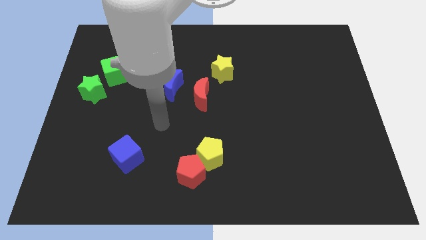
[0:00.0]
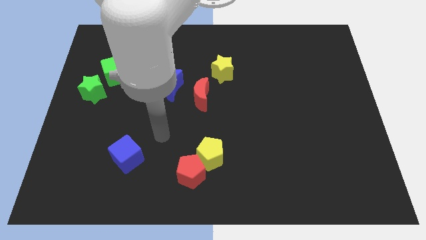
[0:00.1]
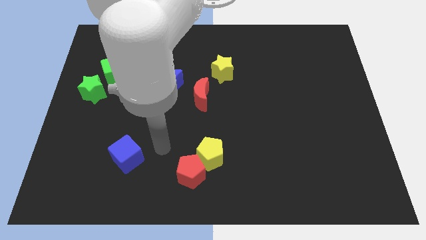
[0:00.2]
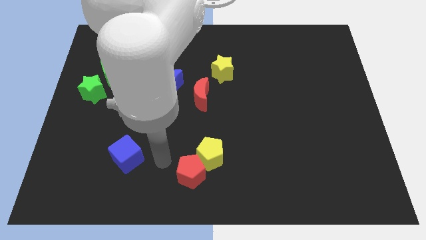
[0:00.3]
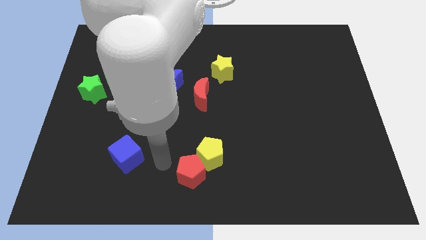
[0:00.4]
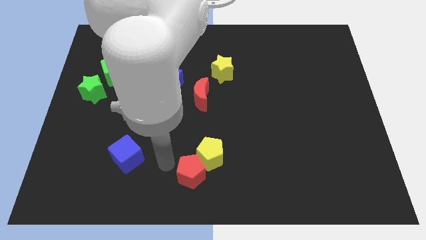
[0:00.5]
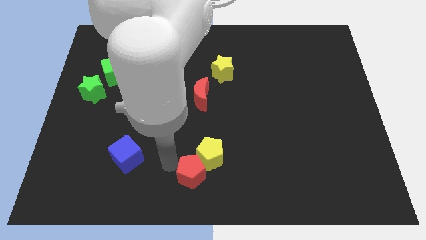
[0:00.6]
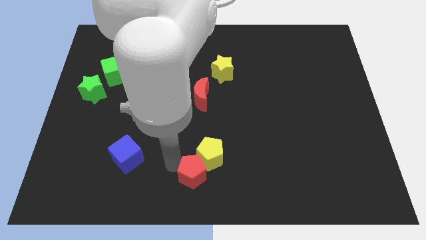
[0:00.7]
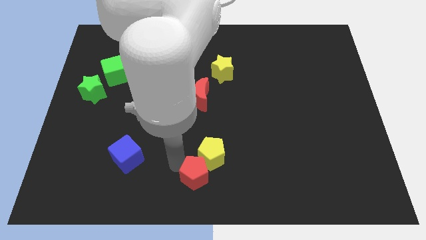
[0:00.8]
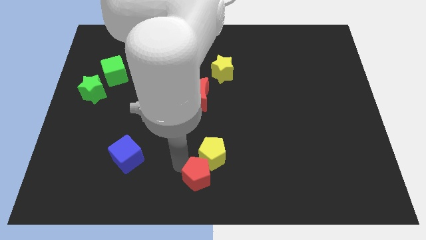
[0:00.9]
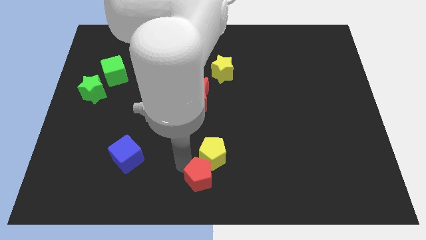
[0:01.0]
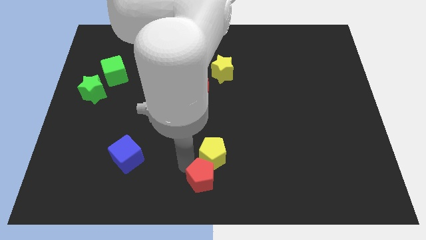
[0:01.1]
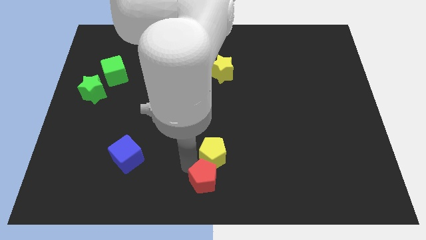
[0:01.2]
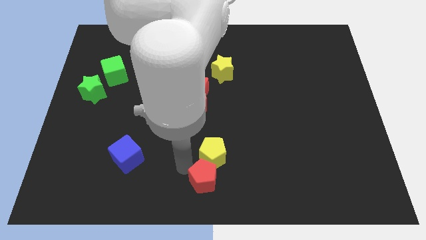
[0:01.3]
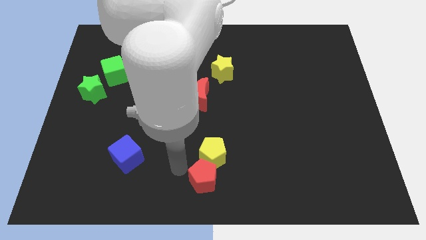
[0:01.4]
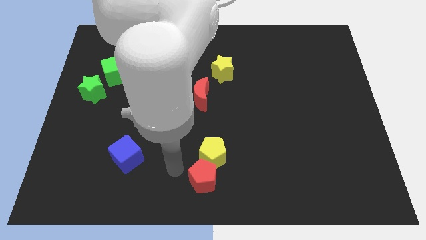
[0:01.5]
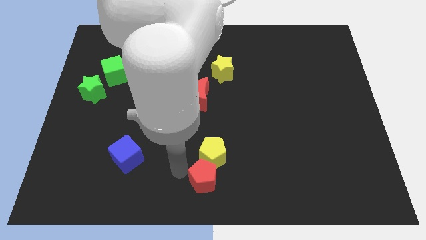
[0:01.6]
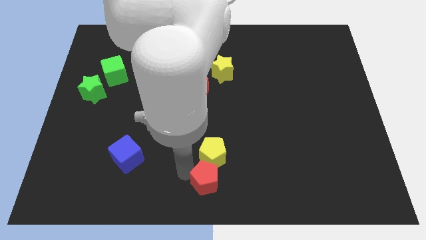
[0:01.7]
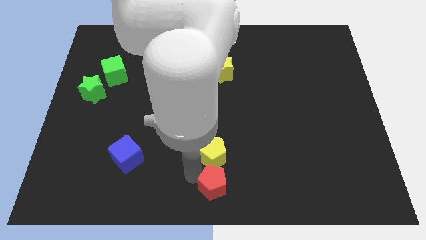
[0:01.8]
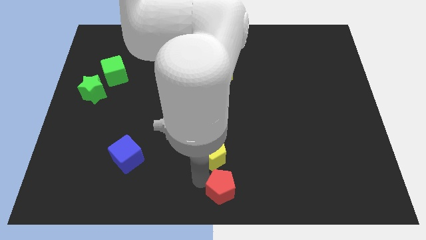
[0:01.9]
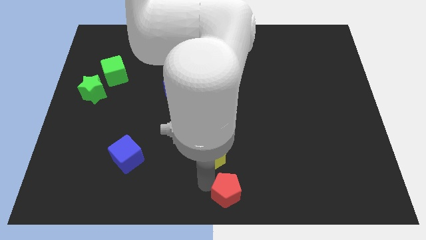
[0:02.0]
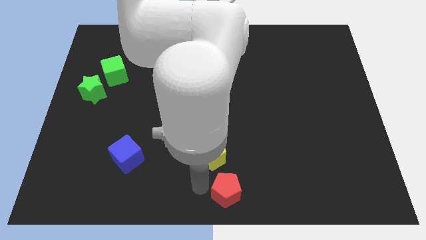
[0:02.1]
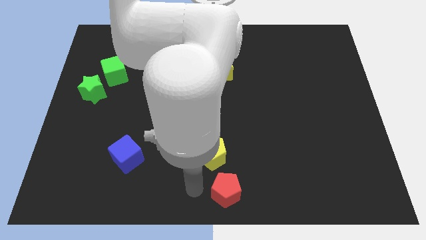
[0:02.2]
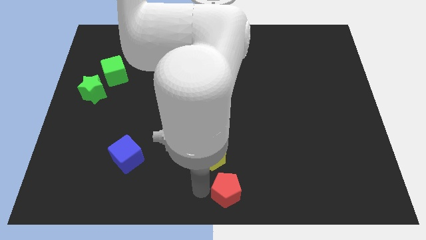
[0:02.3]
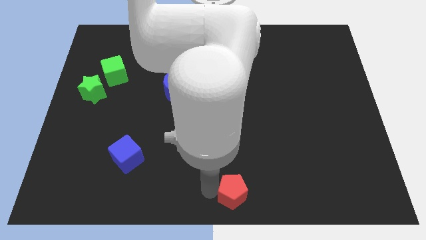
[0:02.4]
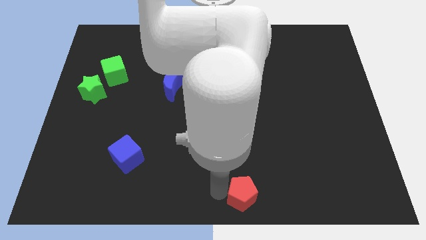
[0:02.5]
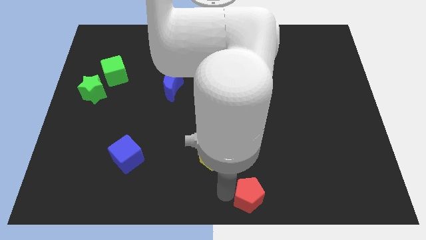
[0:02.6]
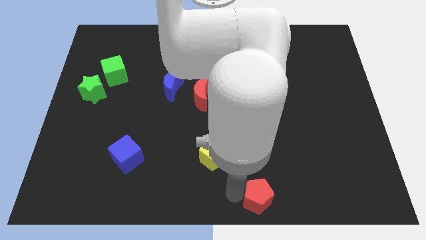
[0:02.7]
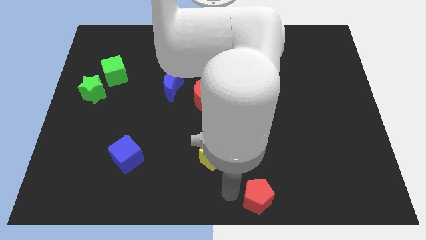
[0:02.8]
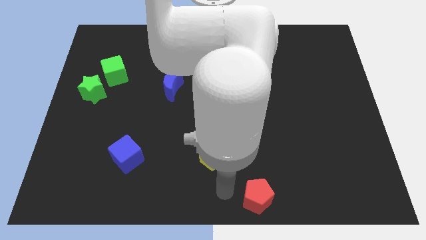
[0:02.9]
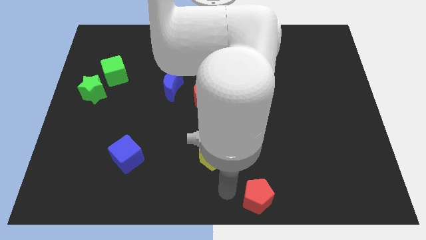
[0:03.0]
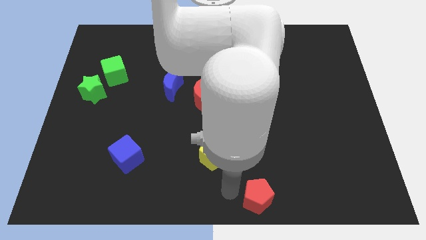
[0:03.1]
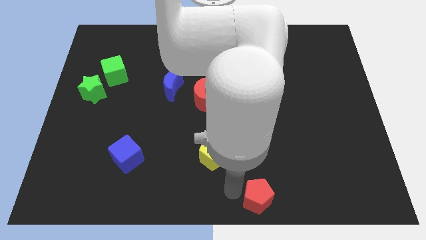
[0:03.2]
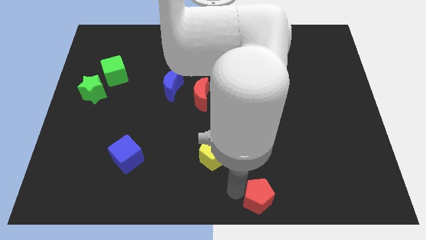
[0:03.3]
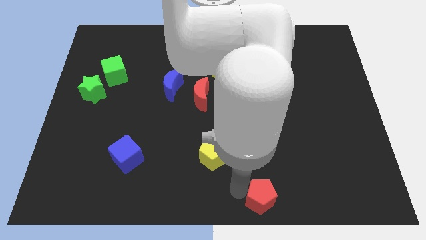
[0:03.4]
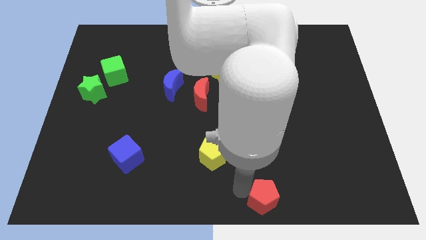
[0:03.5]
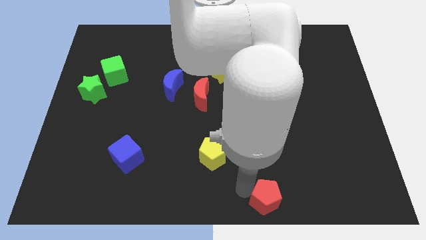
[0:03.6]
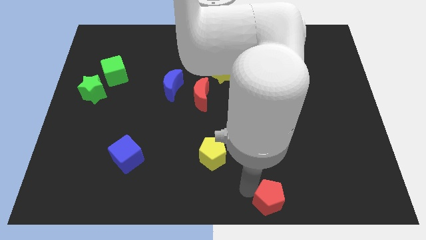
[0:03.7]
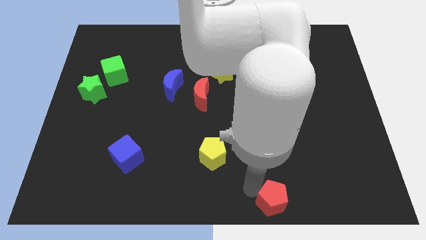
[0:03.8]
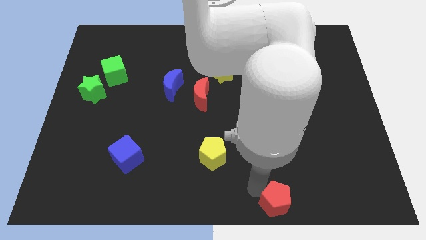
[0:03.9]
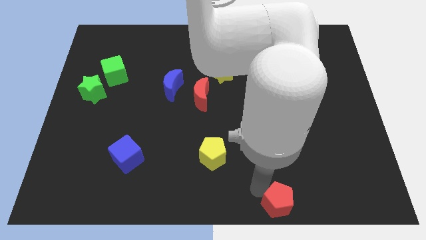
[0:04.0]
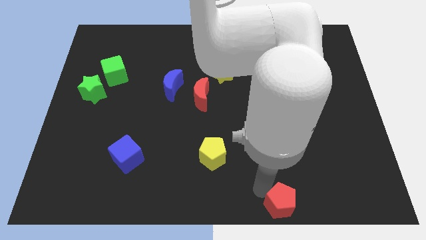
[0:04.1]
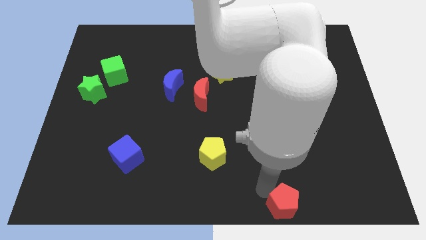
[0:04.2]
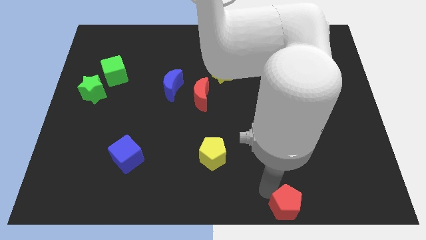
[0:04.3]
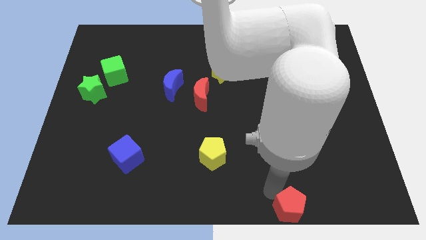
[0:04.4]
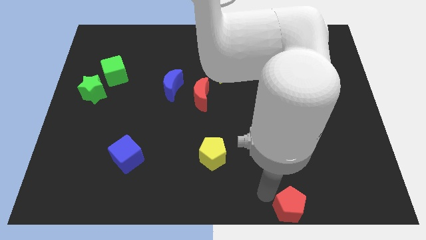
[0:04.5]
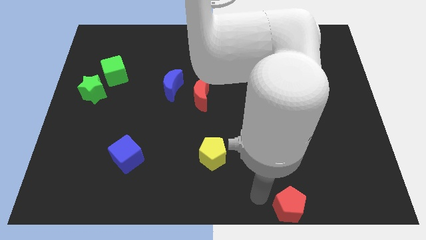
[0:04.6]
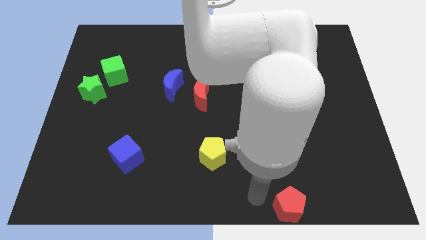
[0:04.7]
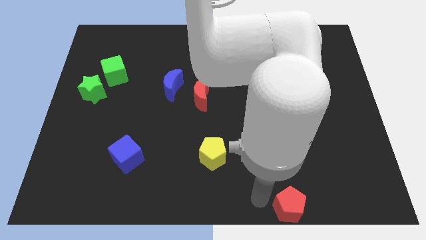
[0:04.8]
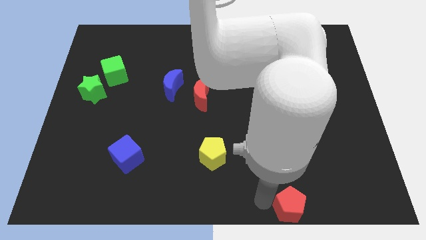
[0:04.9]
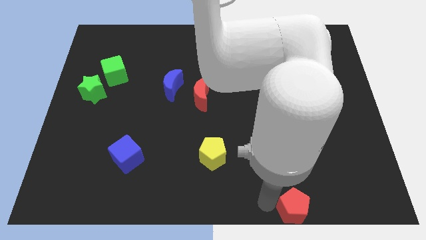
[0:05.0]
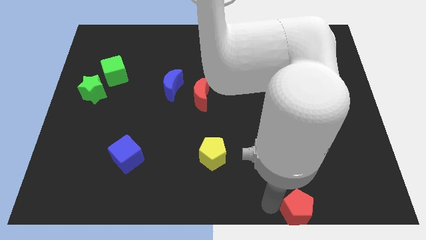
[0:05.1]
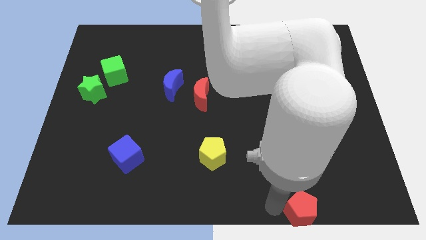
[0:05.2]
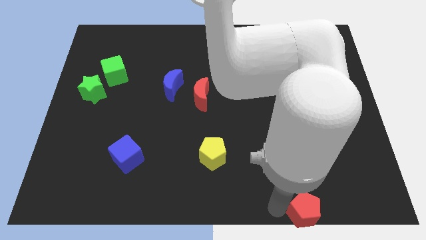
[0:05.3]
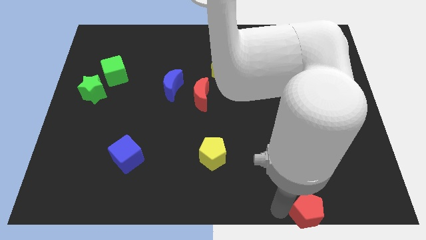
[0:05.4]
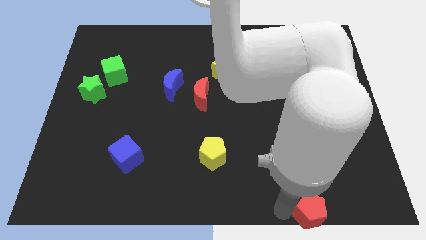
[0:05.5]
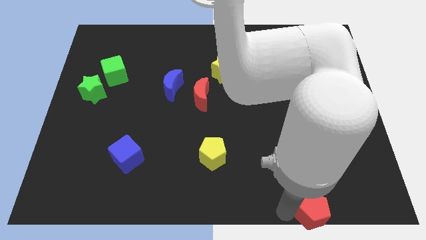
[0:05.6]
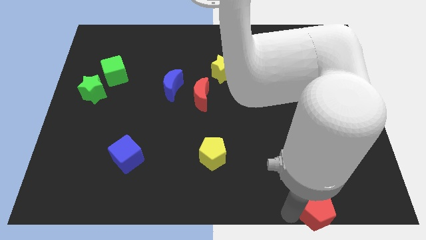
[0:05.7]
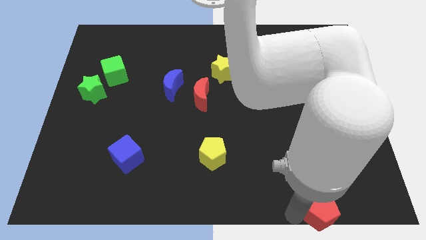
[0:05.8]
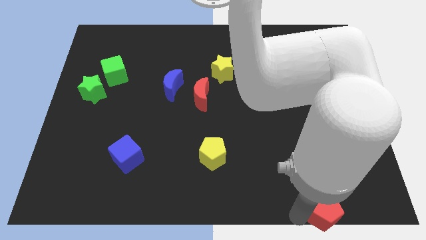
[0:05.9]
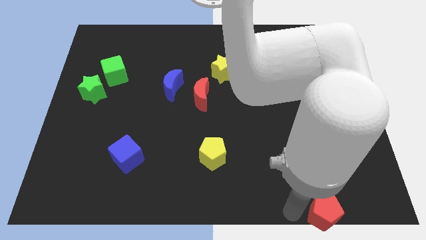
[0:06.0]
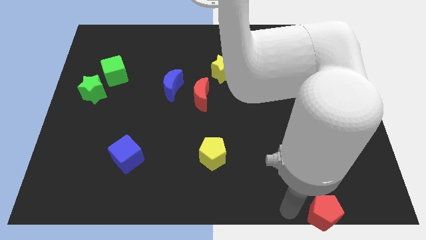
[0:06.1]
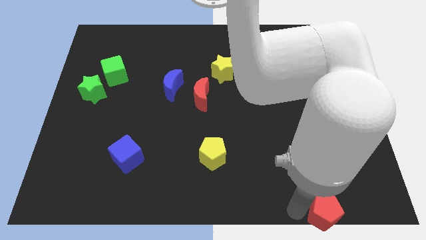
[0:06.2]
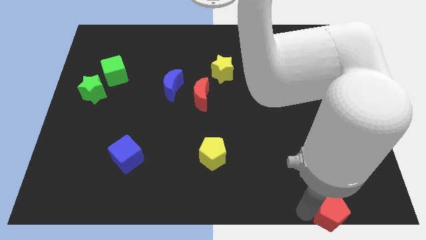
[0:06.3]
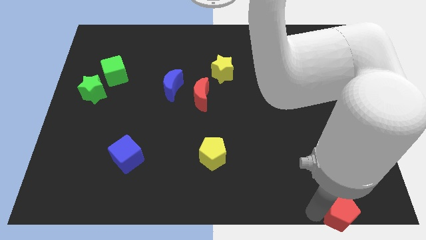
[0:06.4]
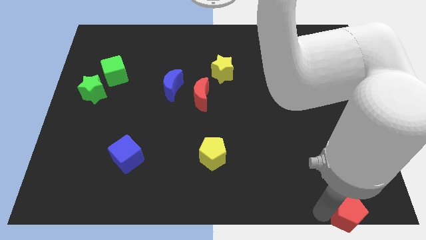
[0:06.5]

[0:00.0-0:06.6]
move the red pentagon to the bottom right
